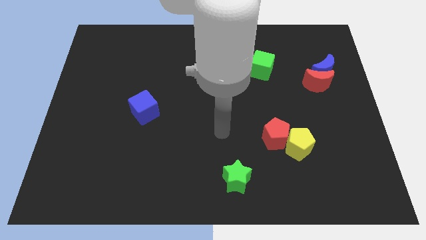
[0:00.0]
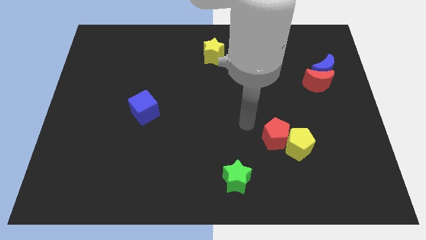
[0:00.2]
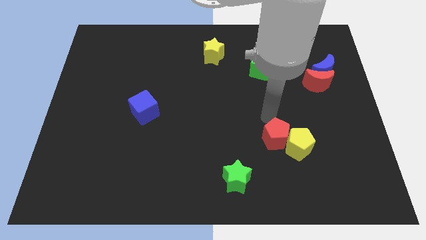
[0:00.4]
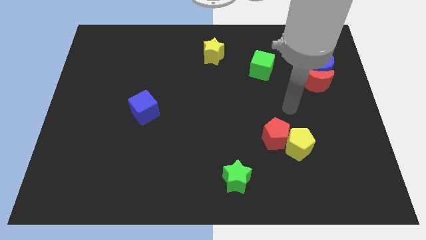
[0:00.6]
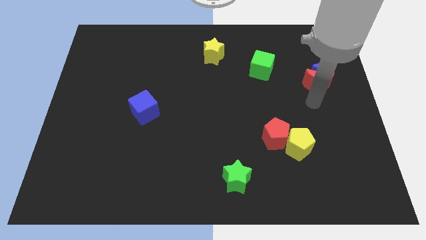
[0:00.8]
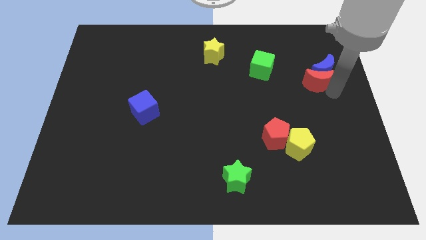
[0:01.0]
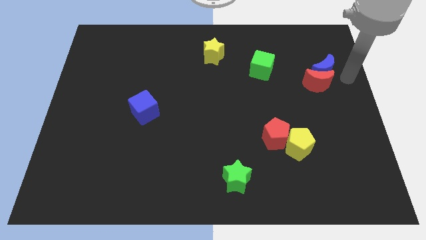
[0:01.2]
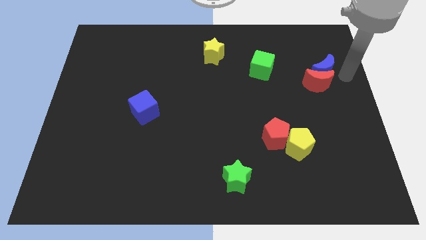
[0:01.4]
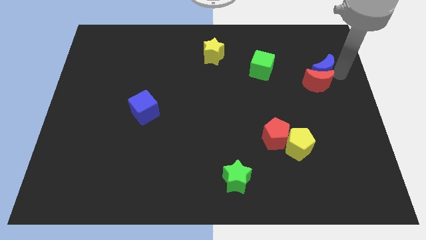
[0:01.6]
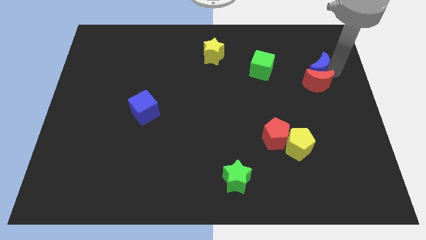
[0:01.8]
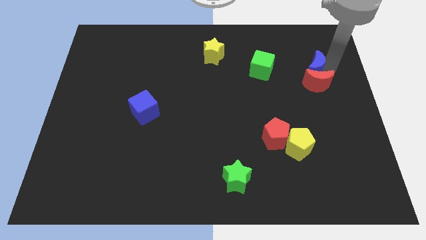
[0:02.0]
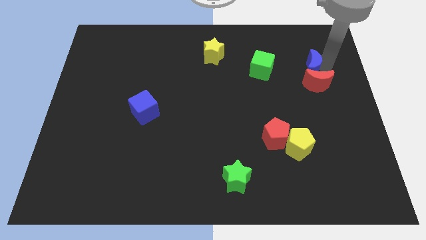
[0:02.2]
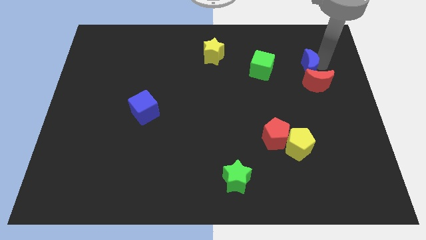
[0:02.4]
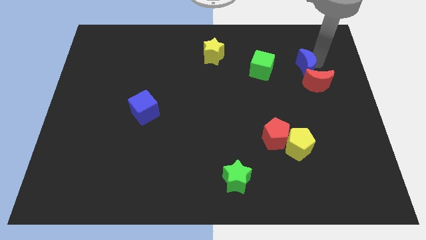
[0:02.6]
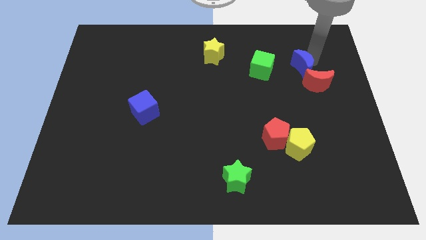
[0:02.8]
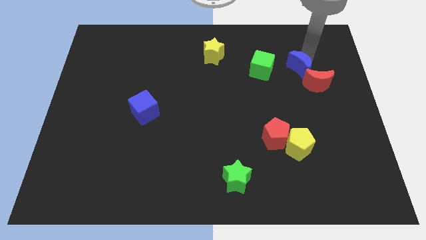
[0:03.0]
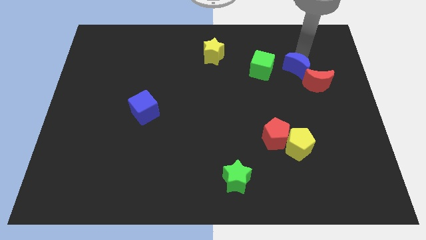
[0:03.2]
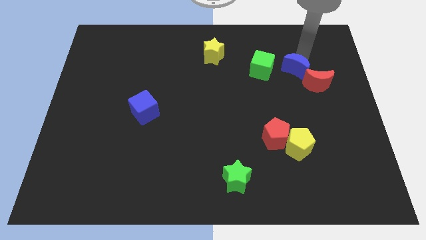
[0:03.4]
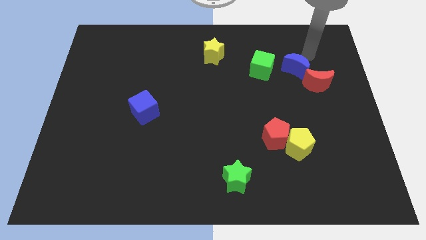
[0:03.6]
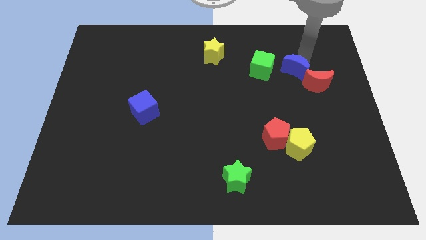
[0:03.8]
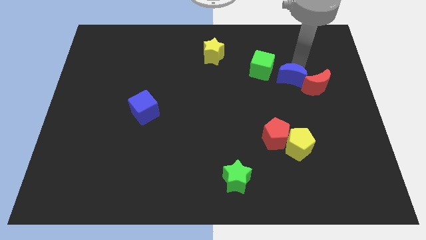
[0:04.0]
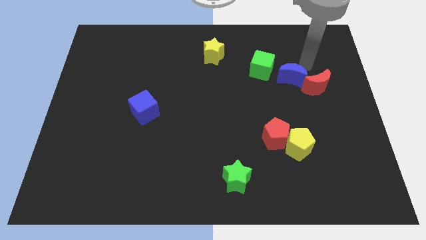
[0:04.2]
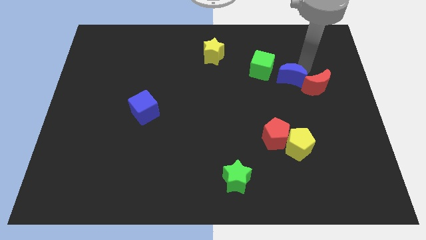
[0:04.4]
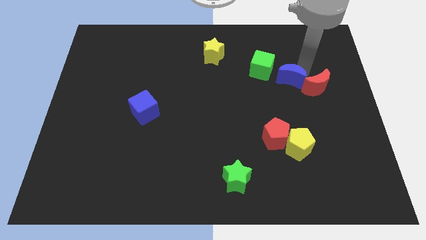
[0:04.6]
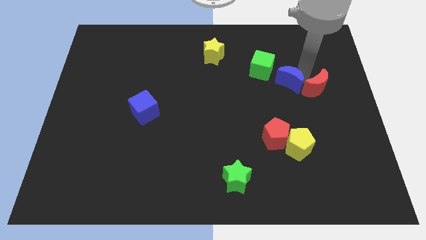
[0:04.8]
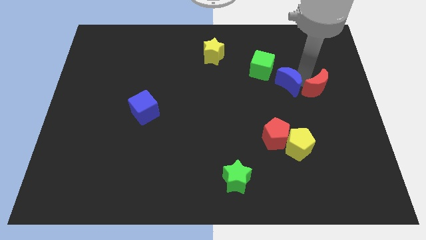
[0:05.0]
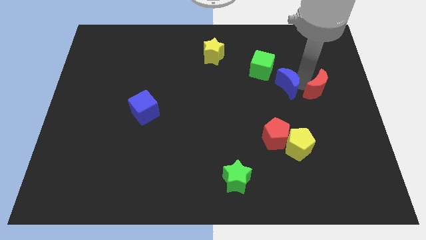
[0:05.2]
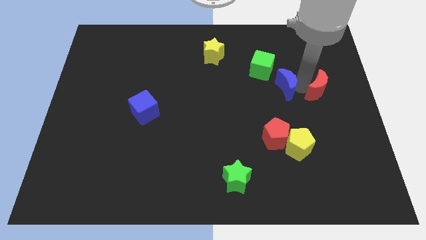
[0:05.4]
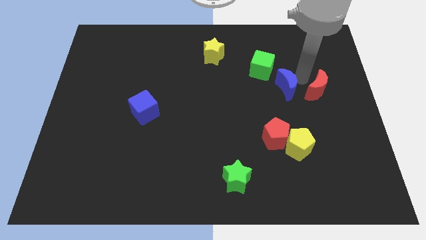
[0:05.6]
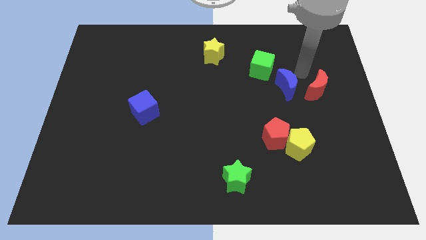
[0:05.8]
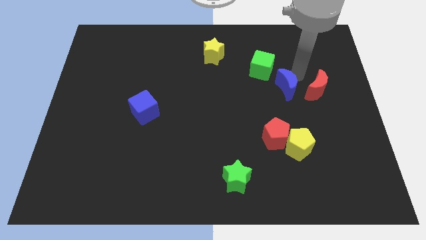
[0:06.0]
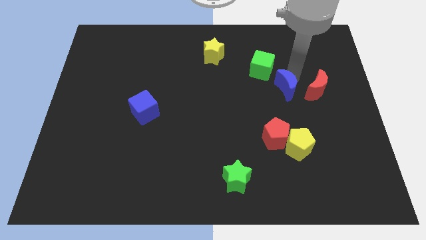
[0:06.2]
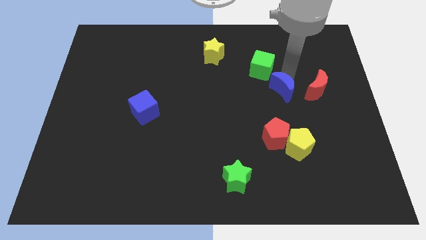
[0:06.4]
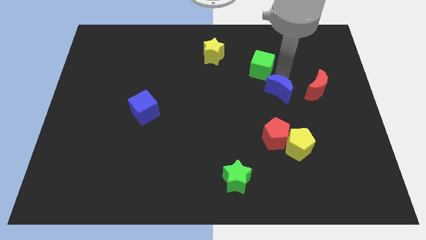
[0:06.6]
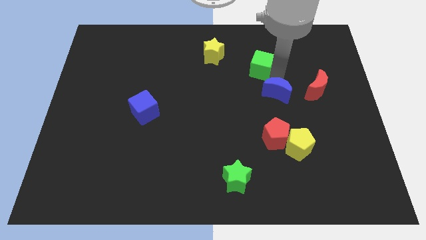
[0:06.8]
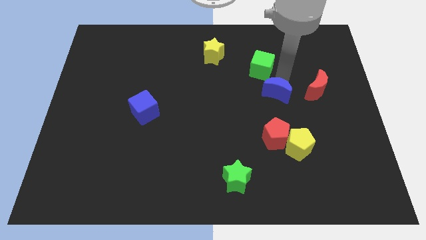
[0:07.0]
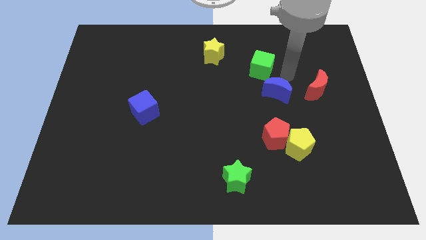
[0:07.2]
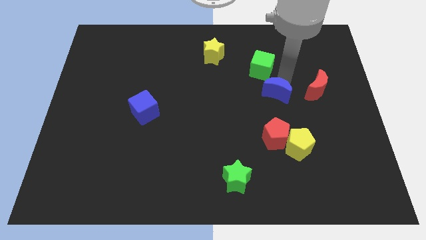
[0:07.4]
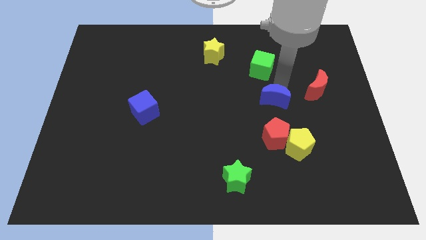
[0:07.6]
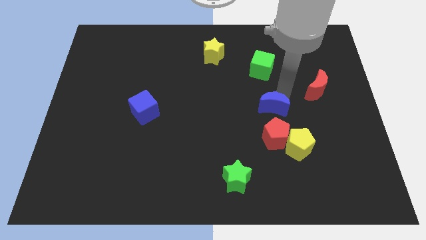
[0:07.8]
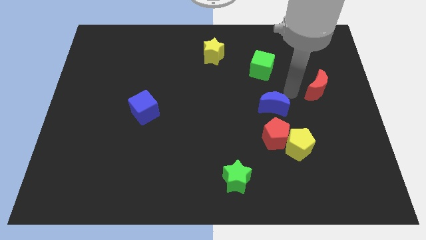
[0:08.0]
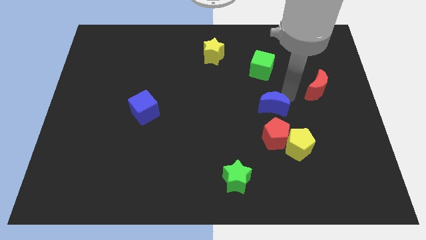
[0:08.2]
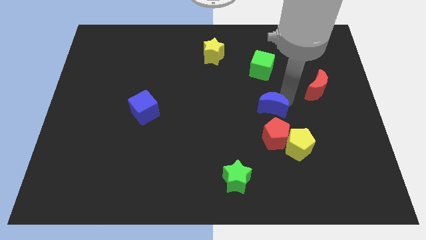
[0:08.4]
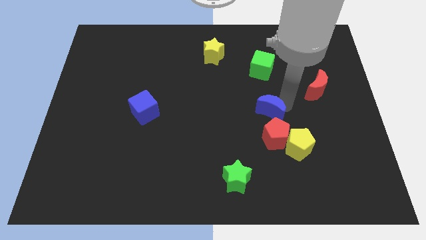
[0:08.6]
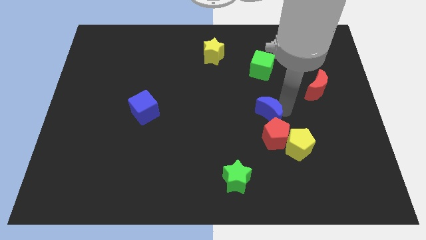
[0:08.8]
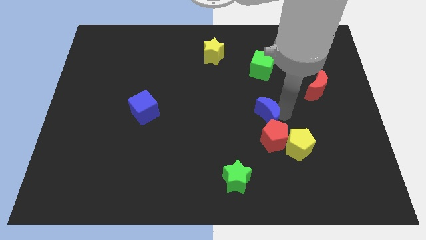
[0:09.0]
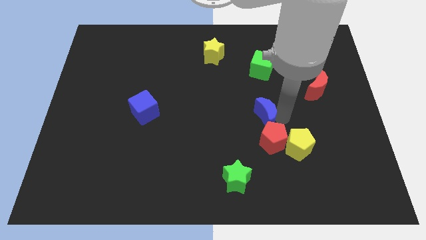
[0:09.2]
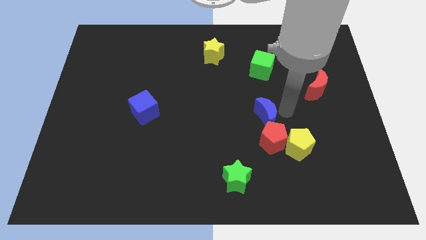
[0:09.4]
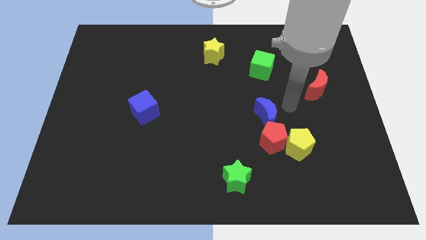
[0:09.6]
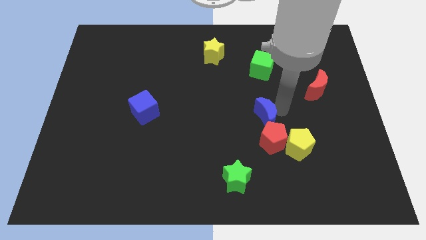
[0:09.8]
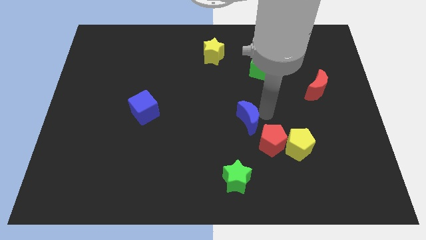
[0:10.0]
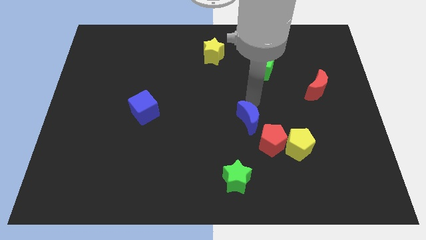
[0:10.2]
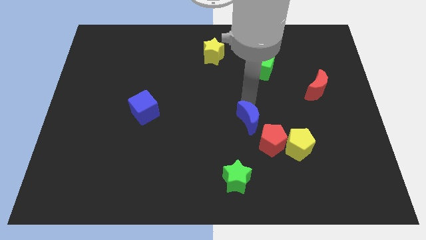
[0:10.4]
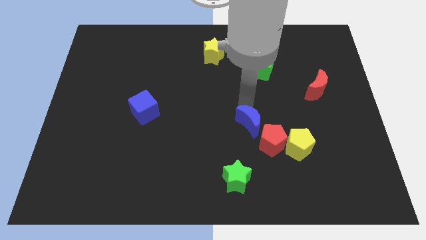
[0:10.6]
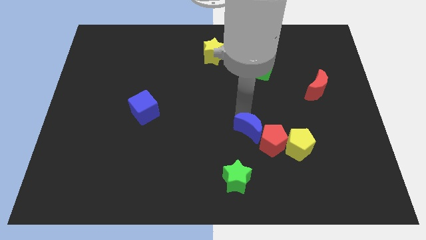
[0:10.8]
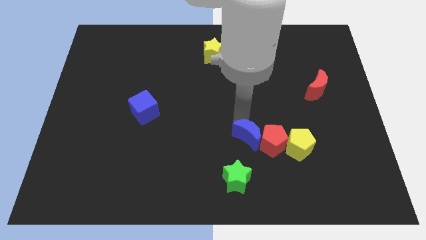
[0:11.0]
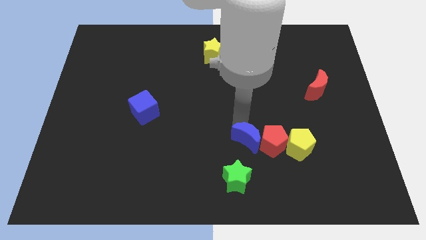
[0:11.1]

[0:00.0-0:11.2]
move the blue moon to the bottom left of the red pentagon

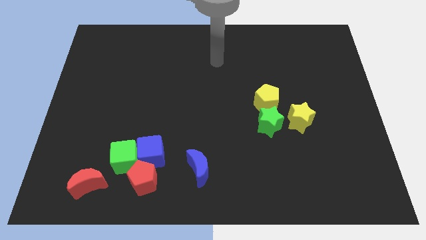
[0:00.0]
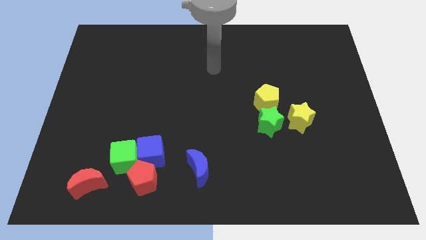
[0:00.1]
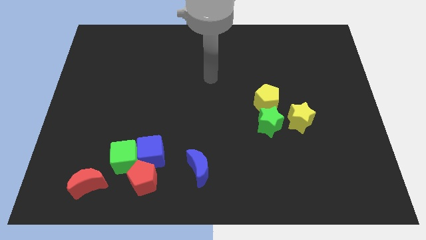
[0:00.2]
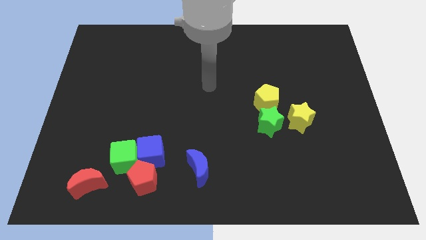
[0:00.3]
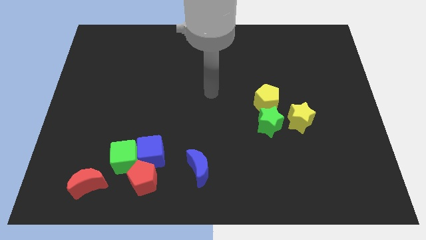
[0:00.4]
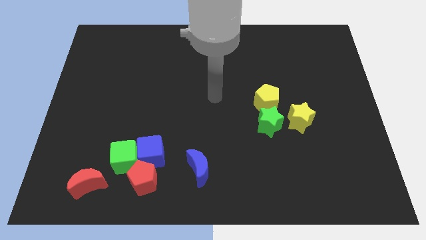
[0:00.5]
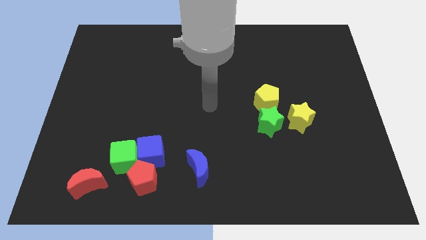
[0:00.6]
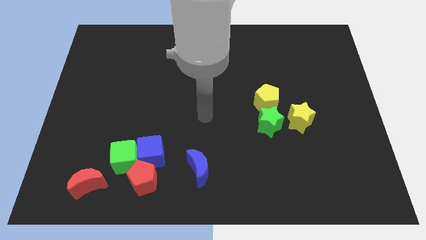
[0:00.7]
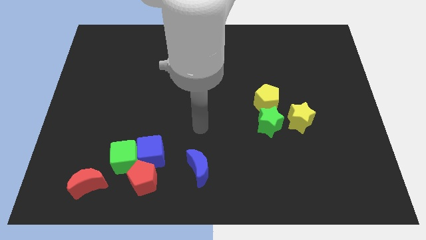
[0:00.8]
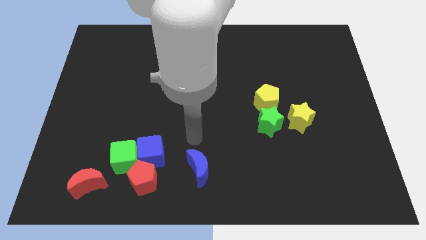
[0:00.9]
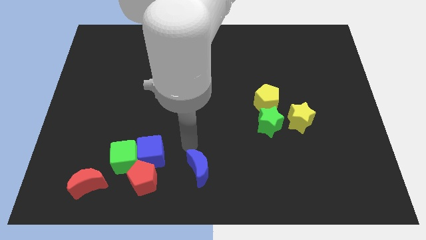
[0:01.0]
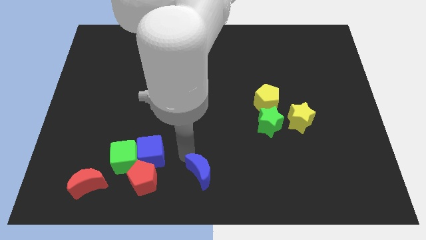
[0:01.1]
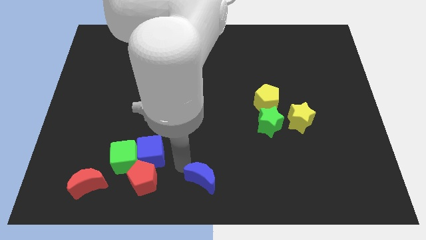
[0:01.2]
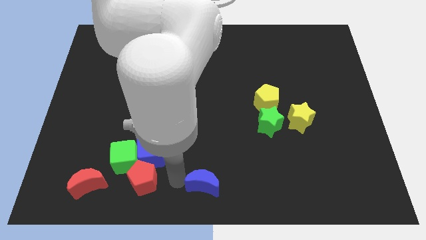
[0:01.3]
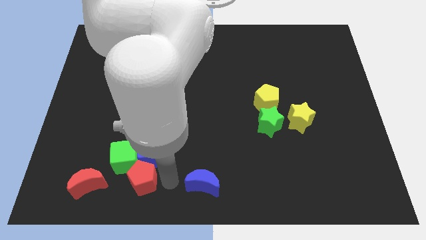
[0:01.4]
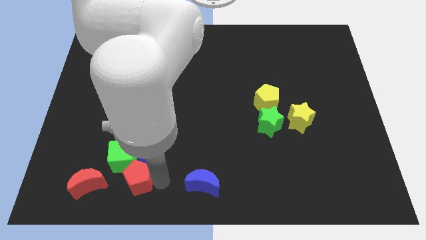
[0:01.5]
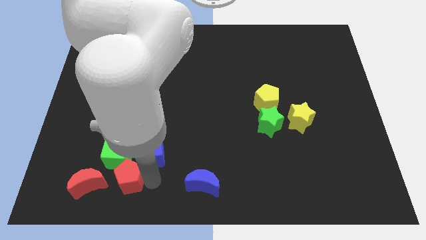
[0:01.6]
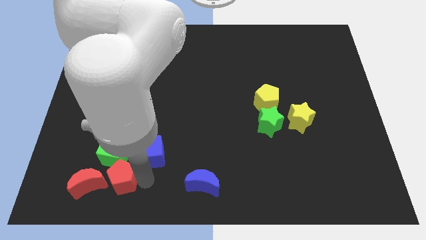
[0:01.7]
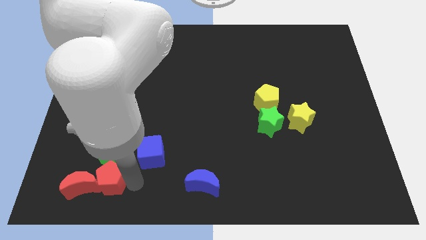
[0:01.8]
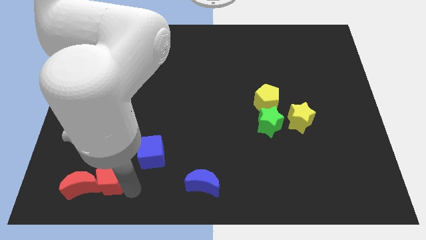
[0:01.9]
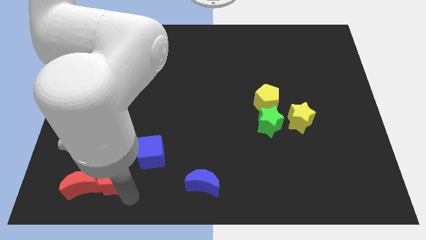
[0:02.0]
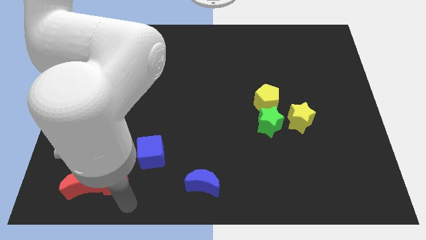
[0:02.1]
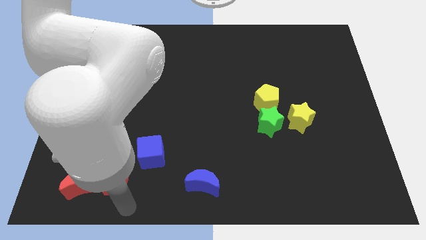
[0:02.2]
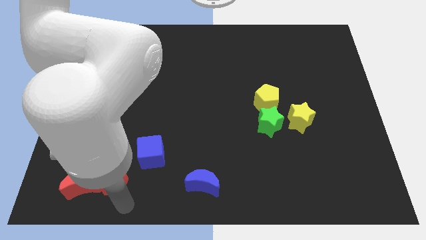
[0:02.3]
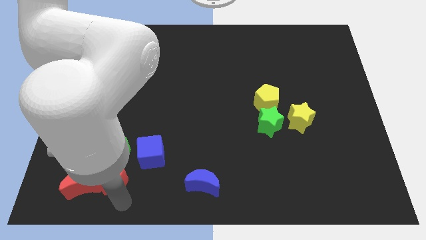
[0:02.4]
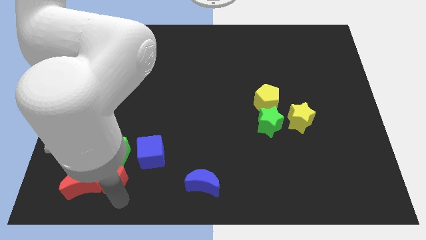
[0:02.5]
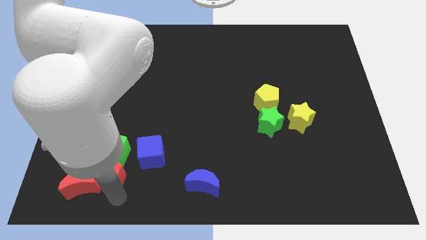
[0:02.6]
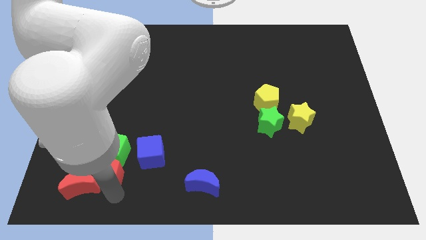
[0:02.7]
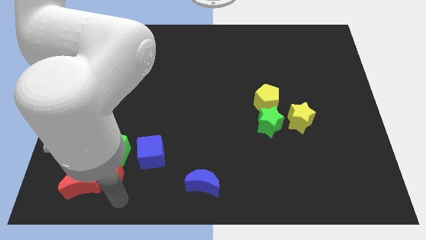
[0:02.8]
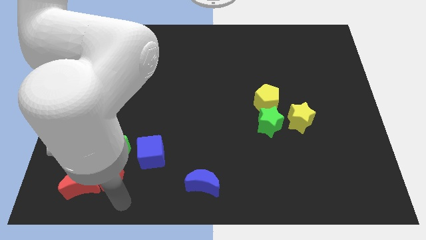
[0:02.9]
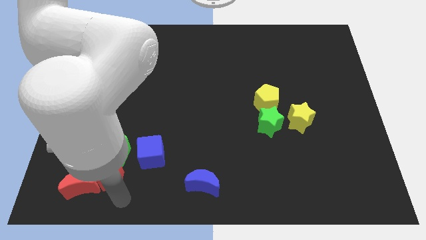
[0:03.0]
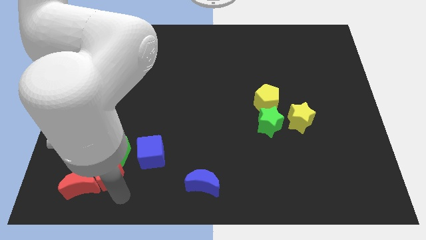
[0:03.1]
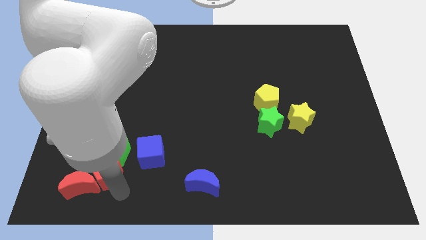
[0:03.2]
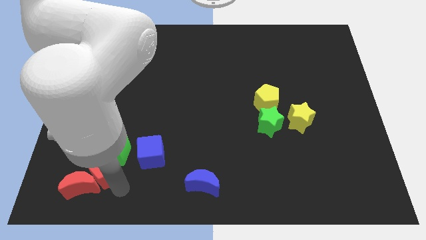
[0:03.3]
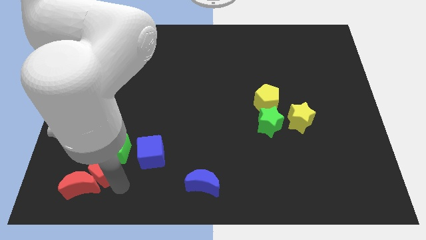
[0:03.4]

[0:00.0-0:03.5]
push the red pentagon to the top side of the red moon
